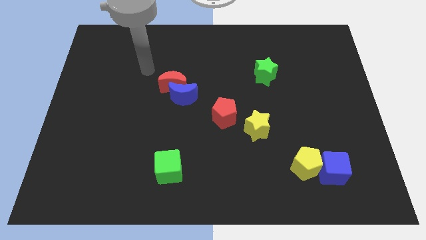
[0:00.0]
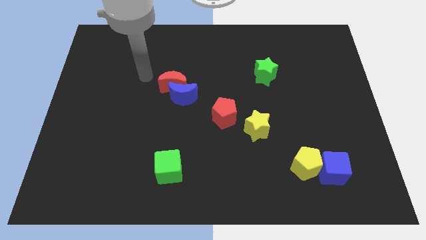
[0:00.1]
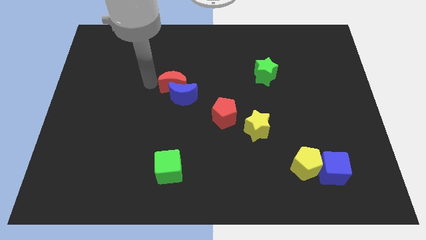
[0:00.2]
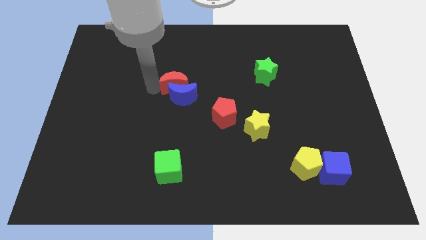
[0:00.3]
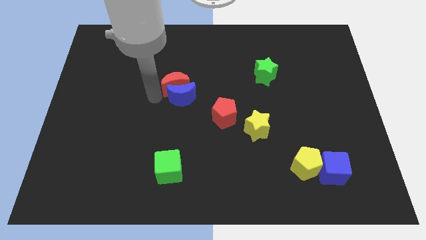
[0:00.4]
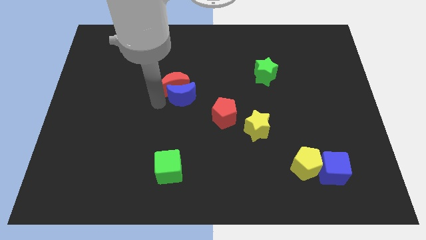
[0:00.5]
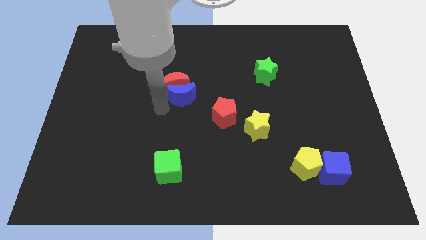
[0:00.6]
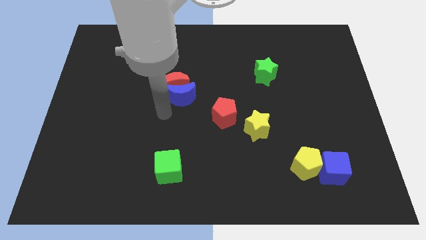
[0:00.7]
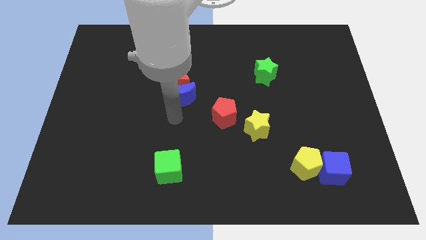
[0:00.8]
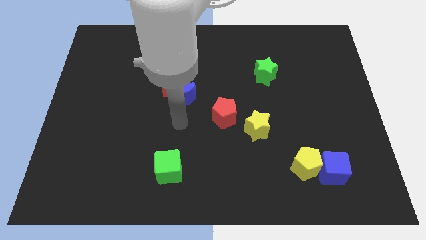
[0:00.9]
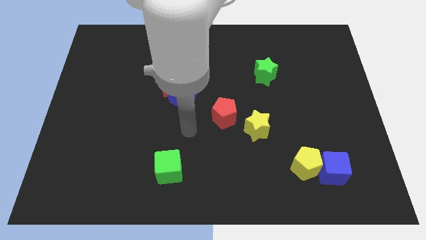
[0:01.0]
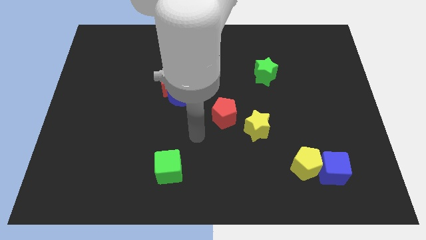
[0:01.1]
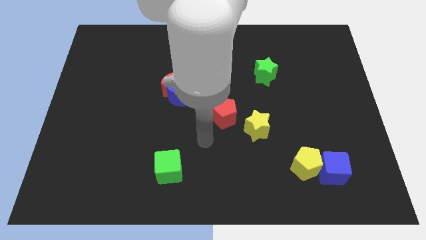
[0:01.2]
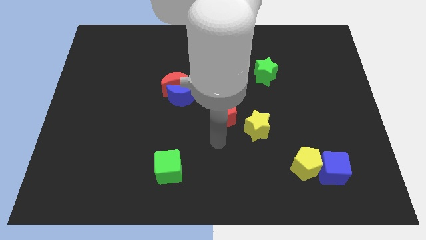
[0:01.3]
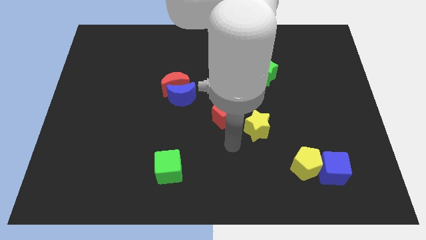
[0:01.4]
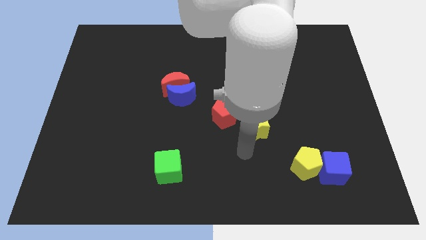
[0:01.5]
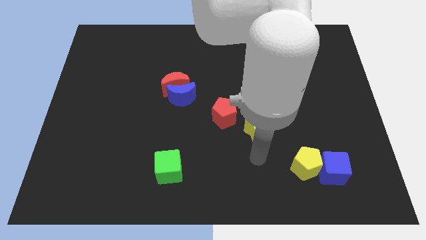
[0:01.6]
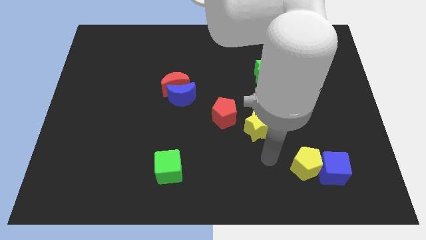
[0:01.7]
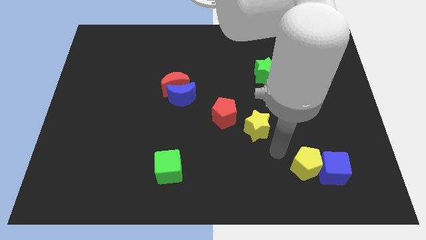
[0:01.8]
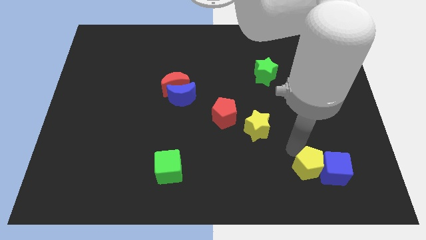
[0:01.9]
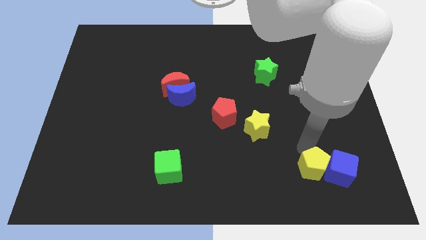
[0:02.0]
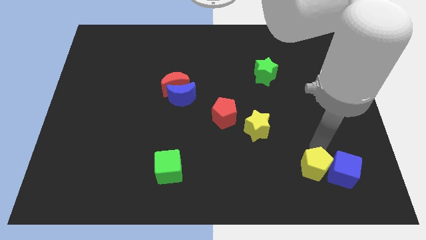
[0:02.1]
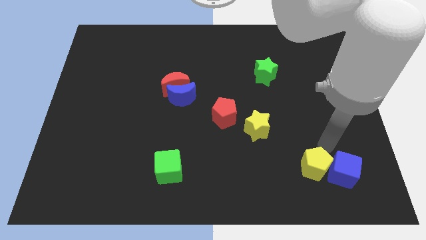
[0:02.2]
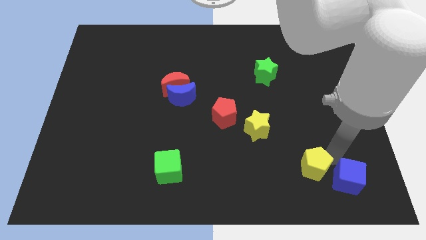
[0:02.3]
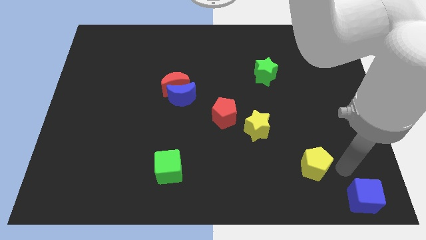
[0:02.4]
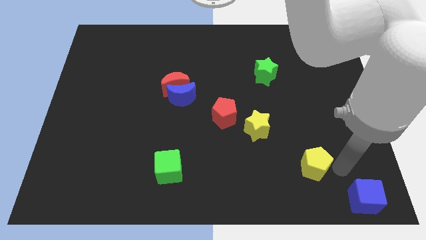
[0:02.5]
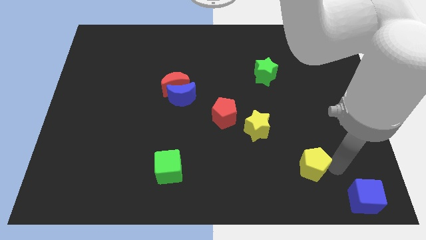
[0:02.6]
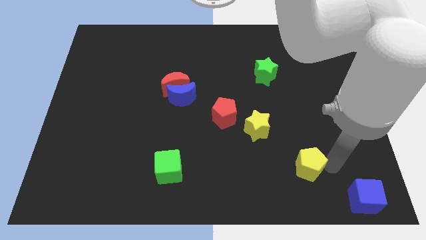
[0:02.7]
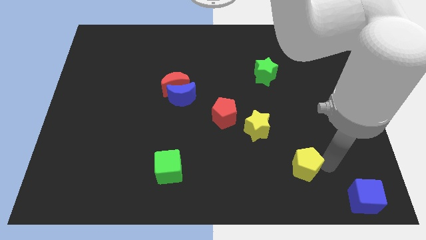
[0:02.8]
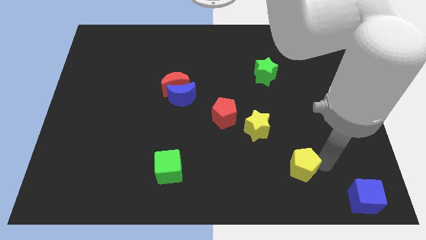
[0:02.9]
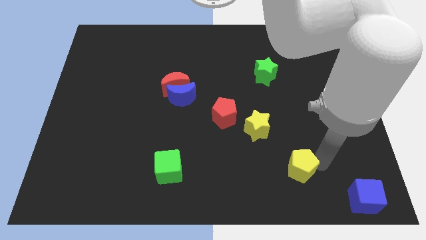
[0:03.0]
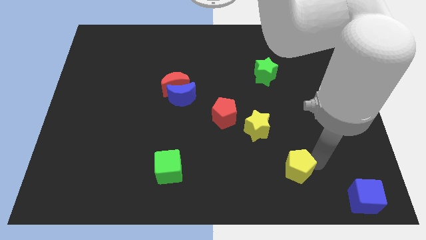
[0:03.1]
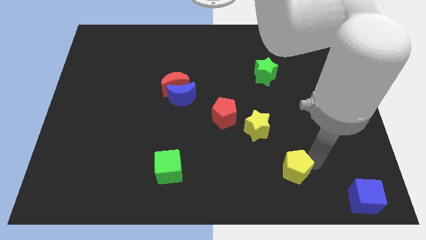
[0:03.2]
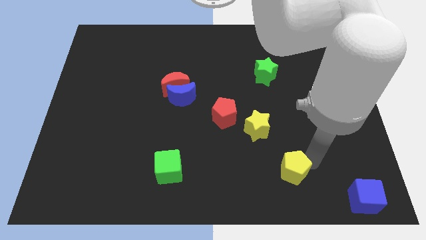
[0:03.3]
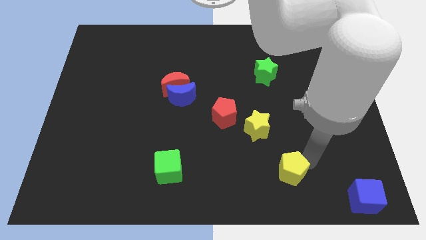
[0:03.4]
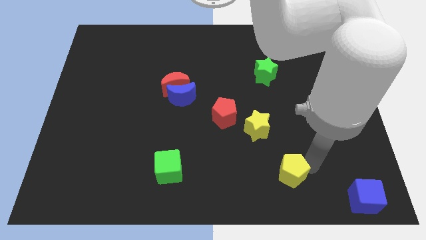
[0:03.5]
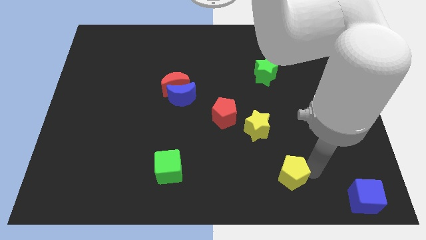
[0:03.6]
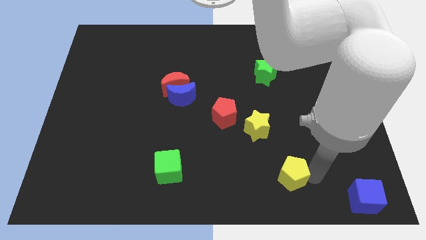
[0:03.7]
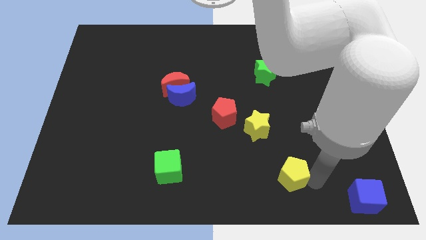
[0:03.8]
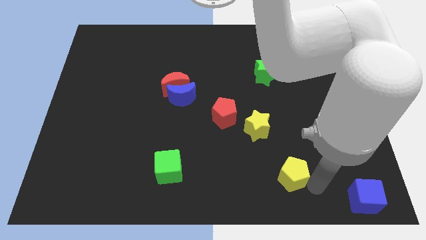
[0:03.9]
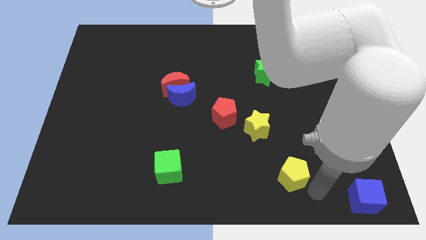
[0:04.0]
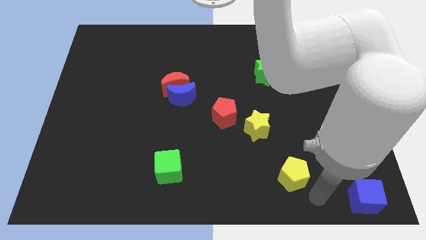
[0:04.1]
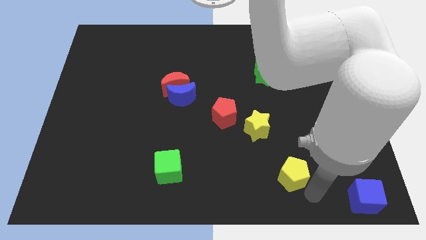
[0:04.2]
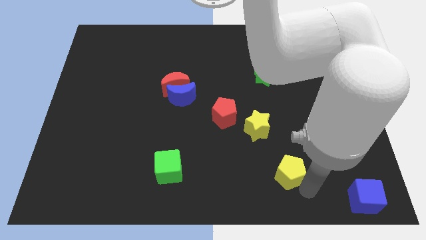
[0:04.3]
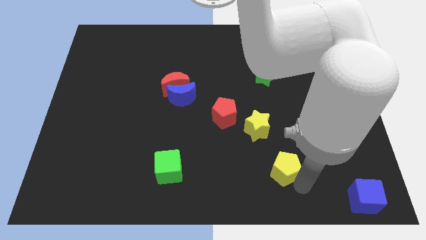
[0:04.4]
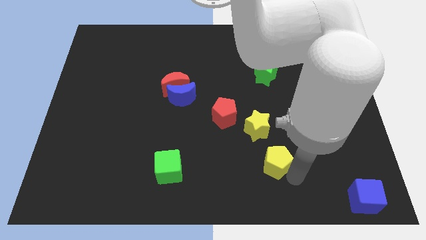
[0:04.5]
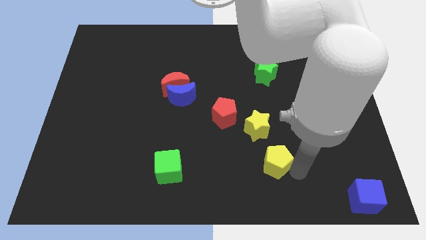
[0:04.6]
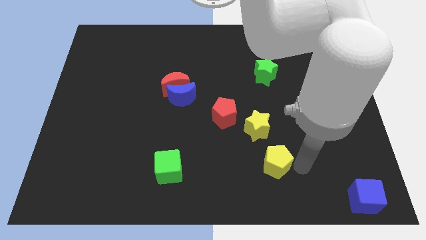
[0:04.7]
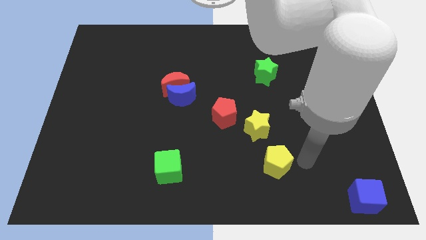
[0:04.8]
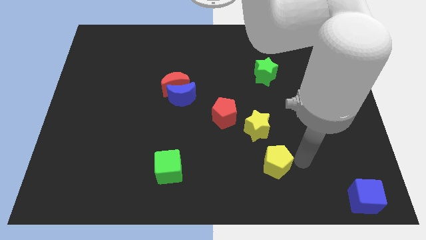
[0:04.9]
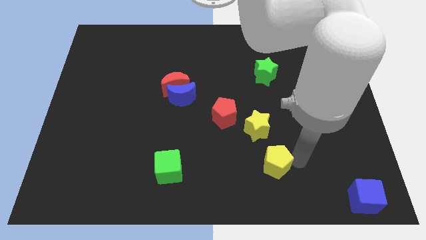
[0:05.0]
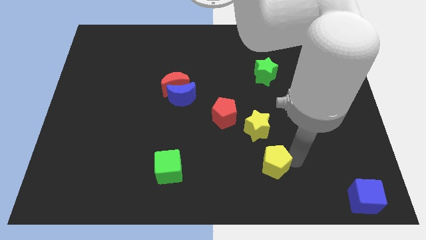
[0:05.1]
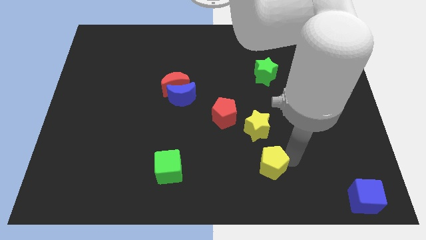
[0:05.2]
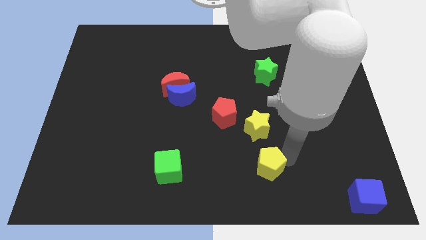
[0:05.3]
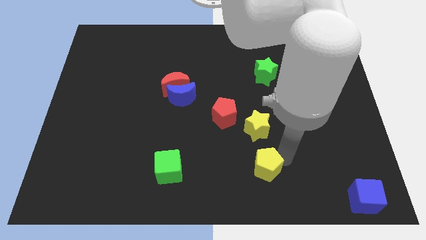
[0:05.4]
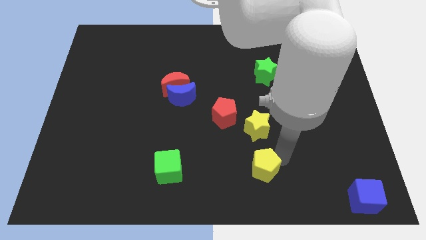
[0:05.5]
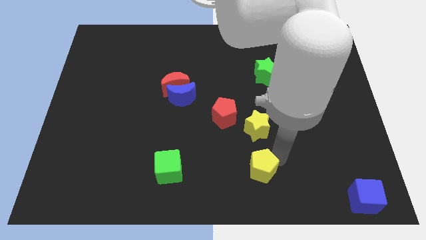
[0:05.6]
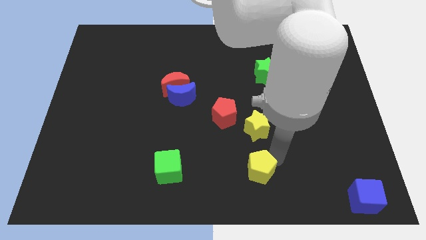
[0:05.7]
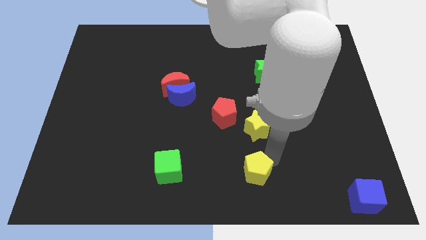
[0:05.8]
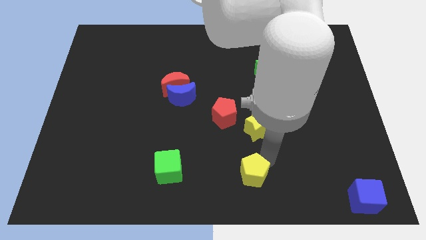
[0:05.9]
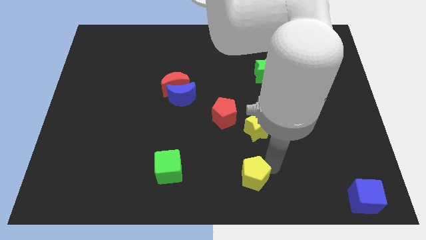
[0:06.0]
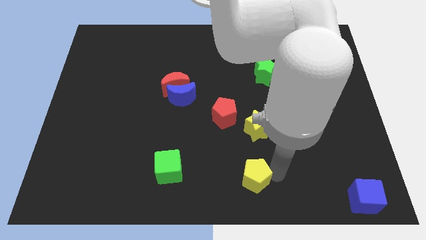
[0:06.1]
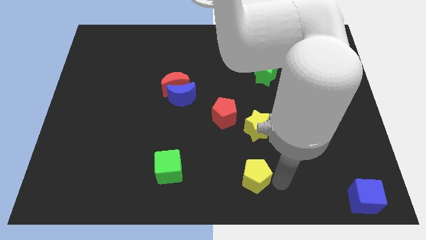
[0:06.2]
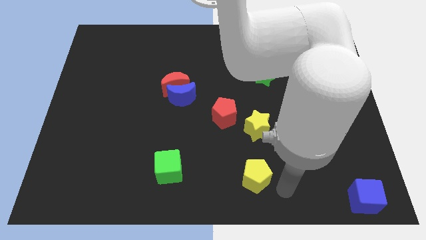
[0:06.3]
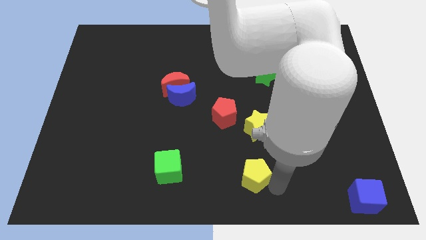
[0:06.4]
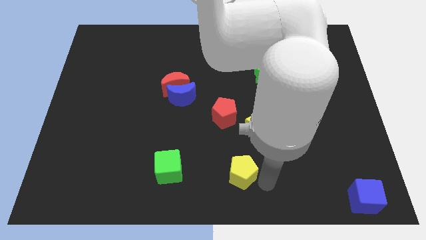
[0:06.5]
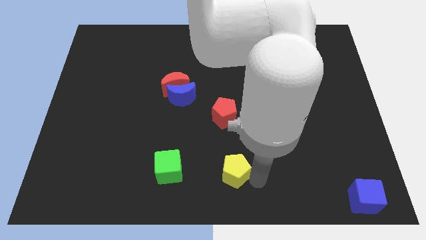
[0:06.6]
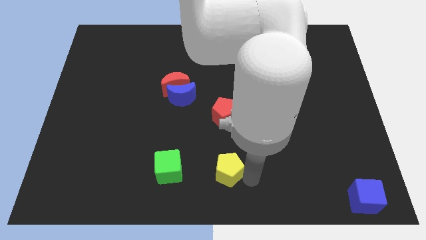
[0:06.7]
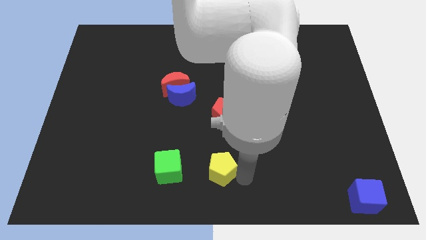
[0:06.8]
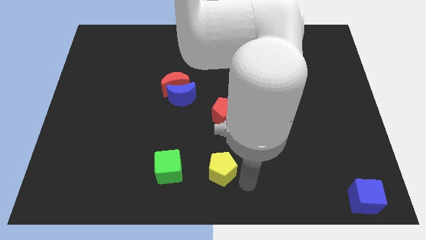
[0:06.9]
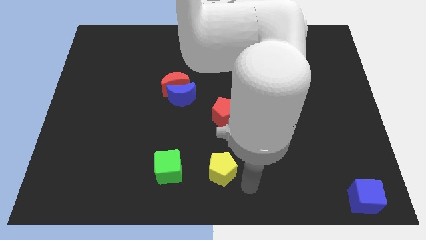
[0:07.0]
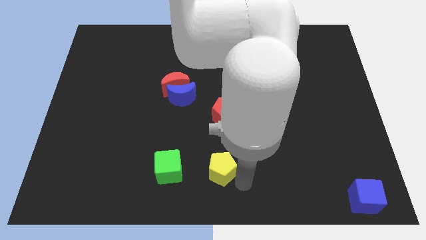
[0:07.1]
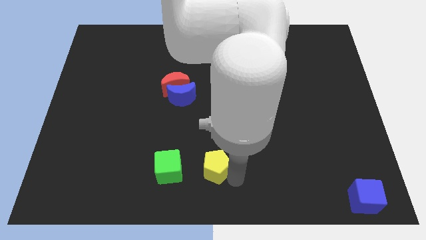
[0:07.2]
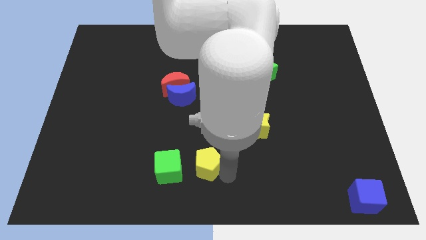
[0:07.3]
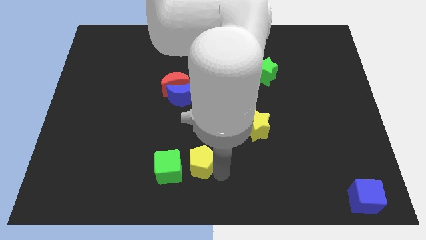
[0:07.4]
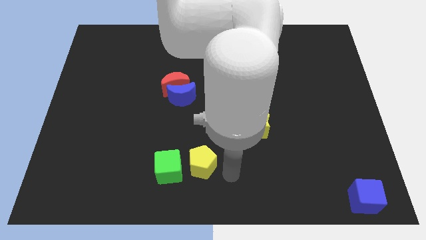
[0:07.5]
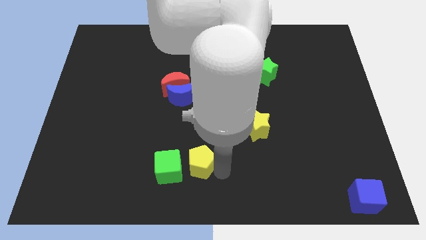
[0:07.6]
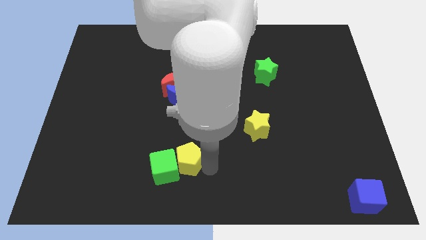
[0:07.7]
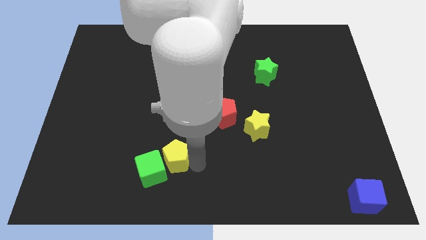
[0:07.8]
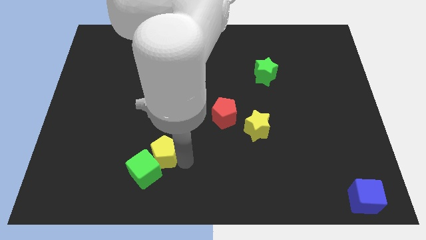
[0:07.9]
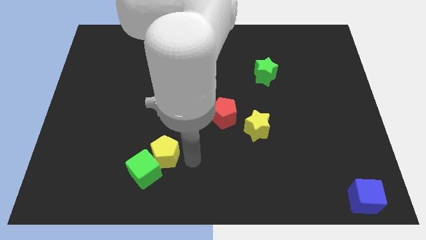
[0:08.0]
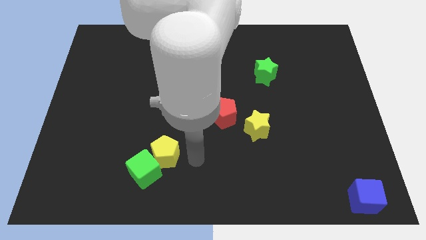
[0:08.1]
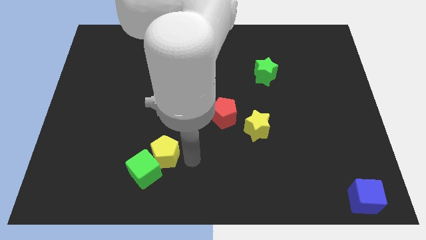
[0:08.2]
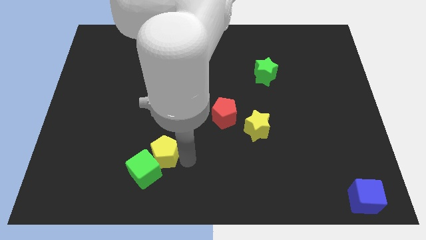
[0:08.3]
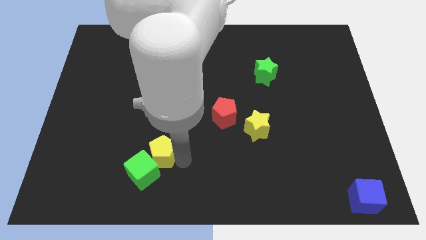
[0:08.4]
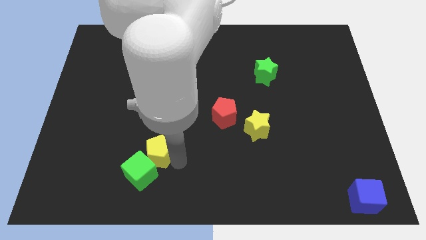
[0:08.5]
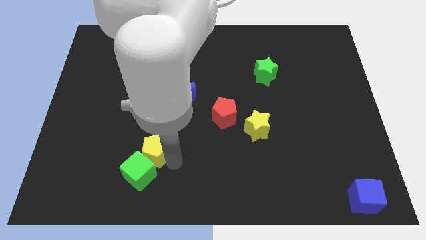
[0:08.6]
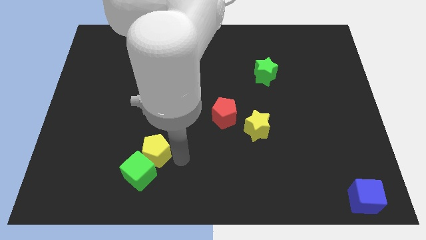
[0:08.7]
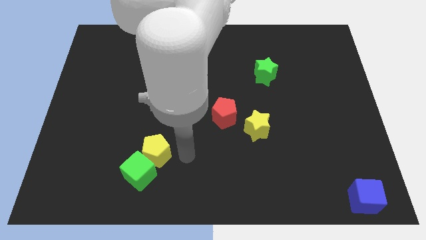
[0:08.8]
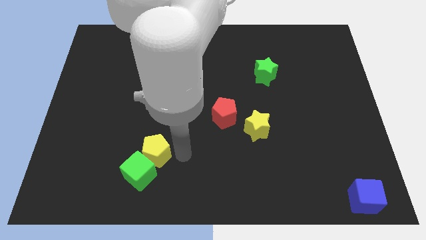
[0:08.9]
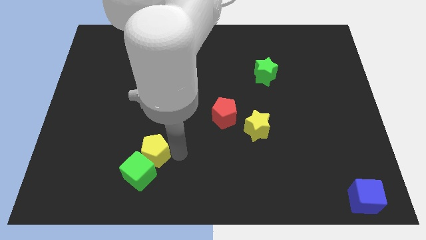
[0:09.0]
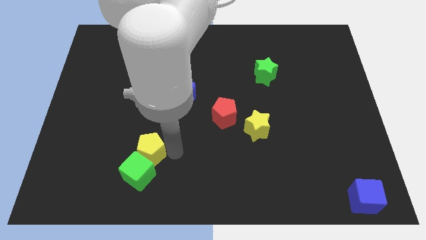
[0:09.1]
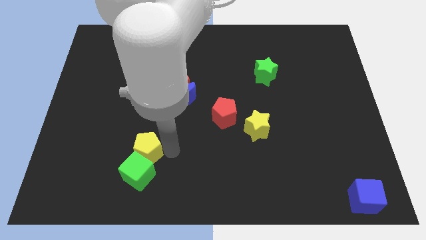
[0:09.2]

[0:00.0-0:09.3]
move the yellow pentagon to the top left side of the green cube
